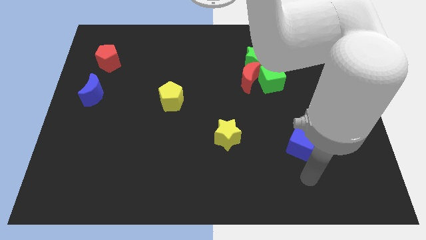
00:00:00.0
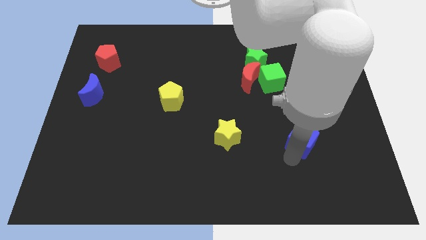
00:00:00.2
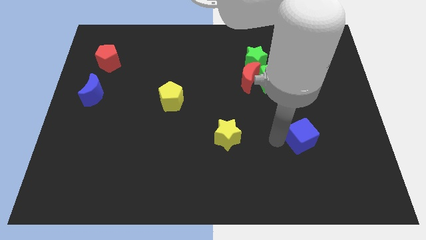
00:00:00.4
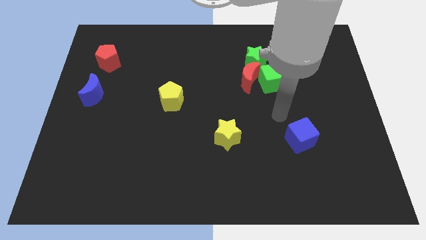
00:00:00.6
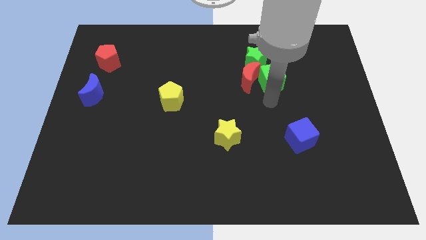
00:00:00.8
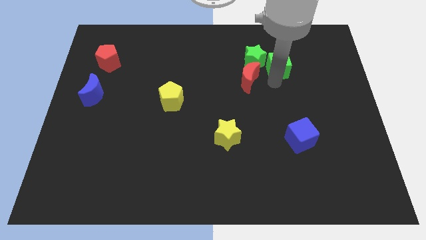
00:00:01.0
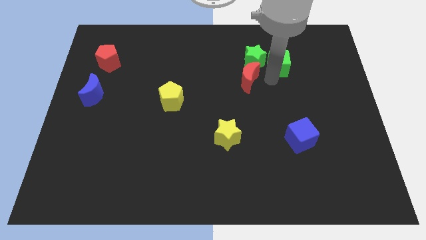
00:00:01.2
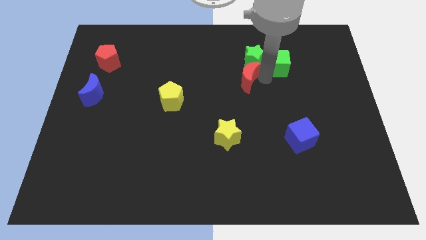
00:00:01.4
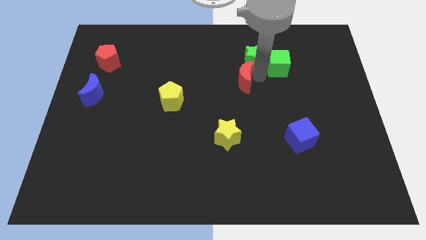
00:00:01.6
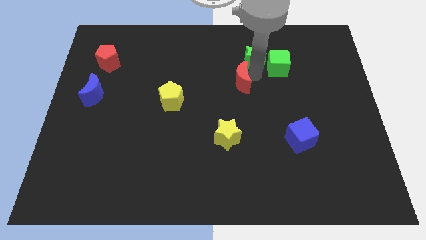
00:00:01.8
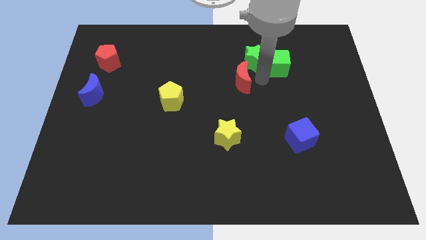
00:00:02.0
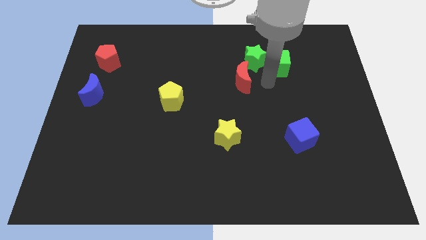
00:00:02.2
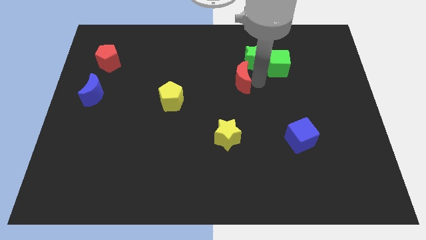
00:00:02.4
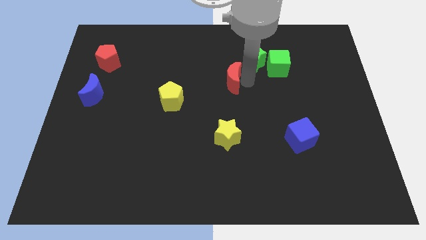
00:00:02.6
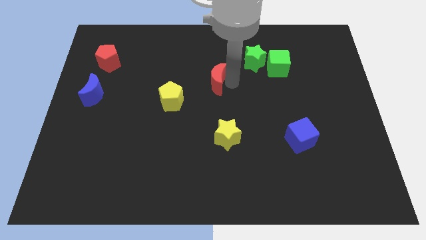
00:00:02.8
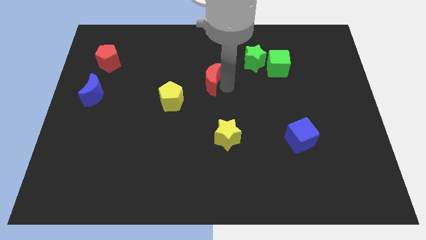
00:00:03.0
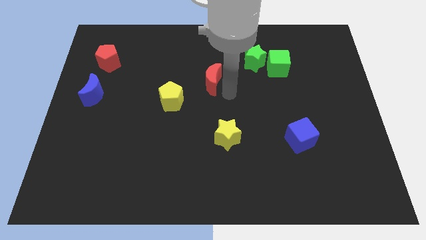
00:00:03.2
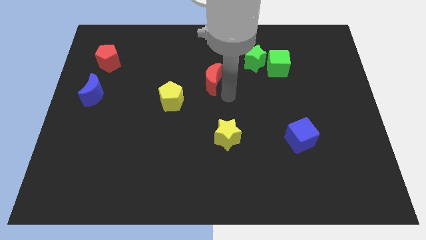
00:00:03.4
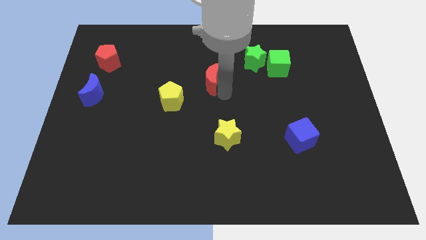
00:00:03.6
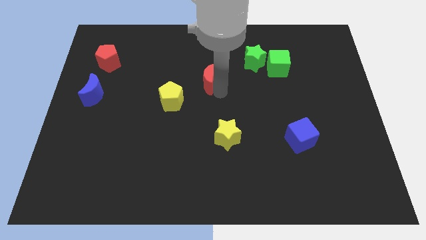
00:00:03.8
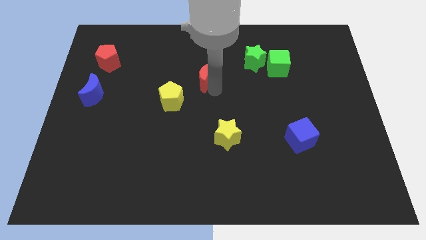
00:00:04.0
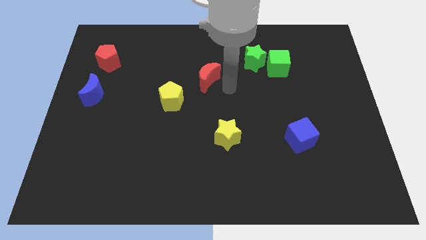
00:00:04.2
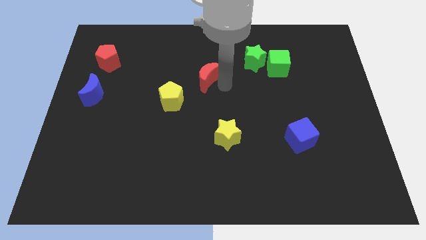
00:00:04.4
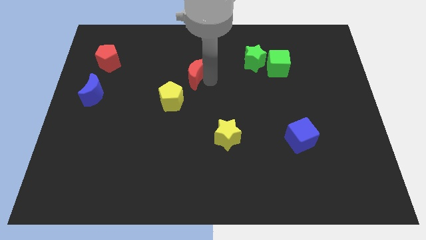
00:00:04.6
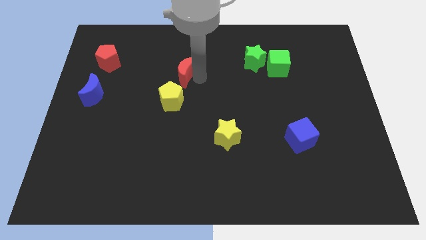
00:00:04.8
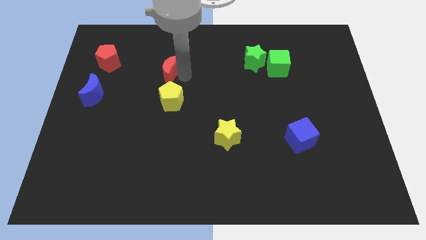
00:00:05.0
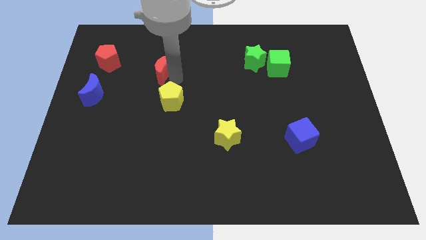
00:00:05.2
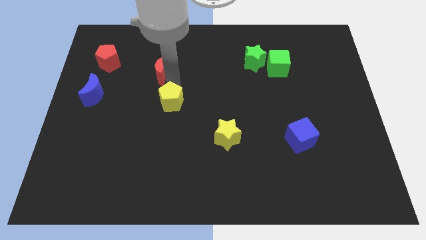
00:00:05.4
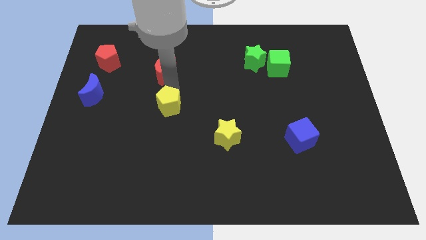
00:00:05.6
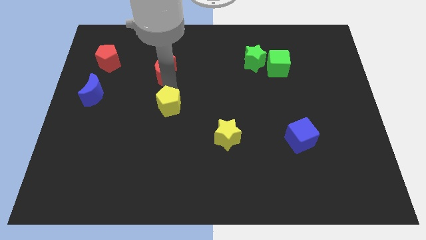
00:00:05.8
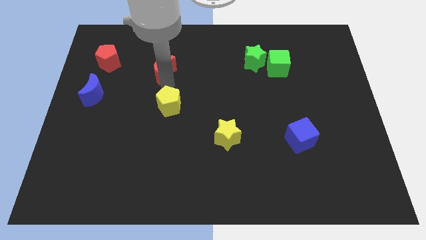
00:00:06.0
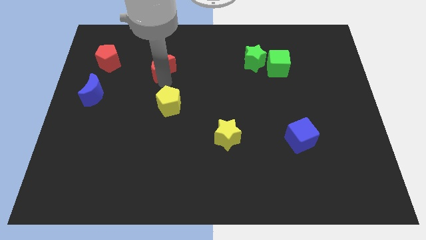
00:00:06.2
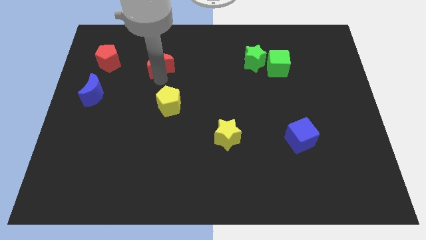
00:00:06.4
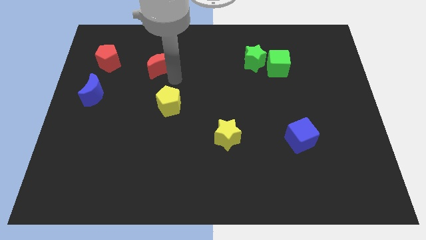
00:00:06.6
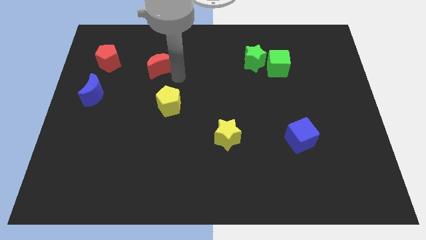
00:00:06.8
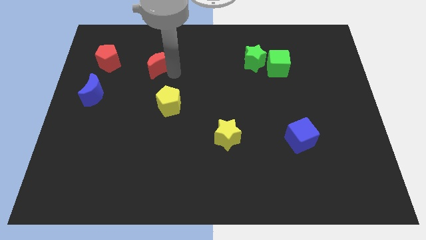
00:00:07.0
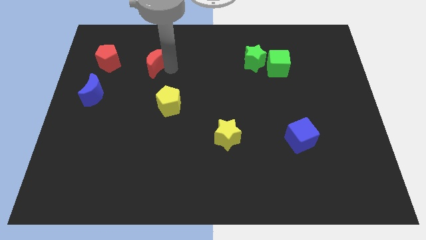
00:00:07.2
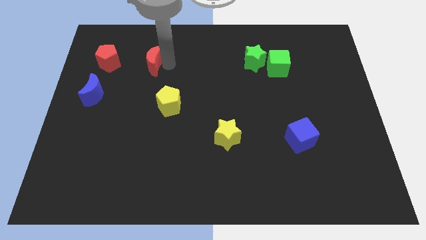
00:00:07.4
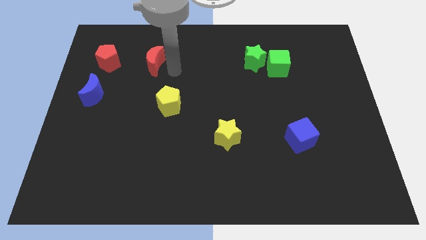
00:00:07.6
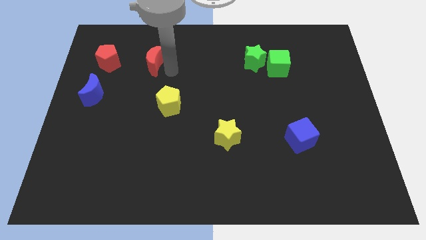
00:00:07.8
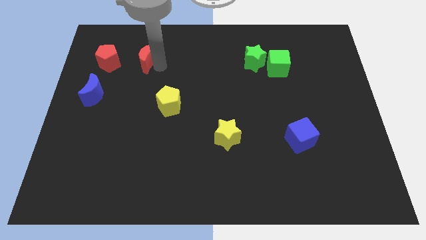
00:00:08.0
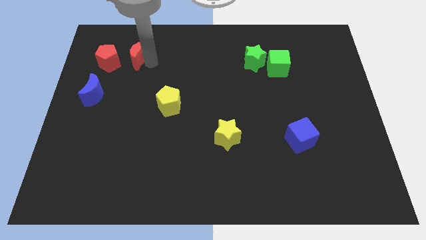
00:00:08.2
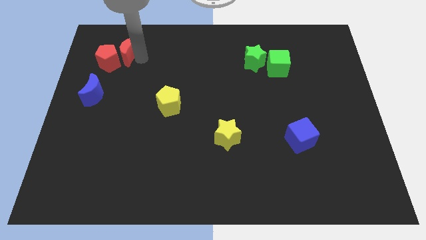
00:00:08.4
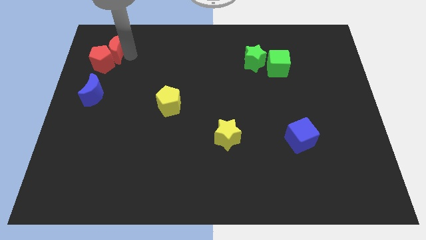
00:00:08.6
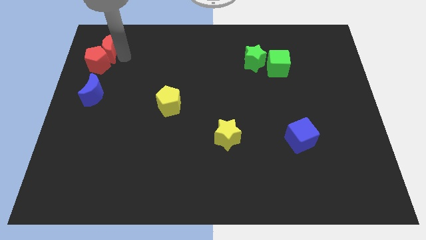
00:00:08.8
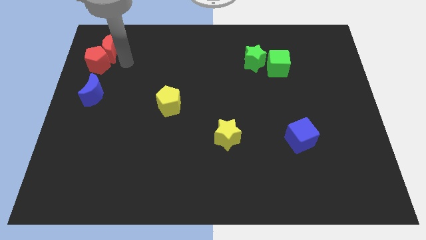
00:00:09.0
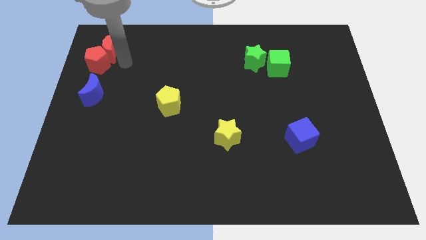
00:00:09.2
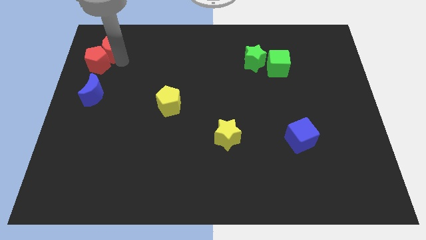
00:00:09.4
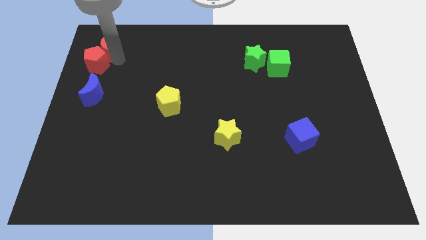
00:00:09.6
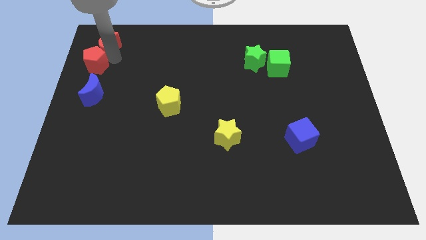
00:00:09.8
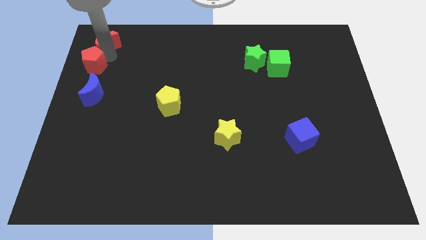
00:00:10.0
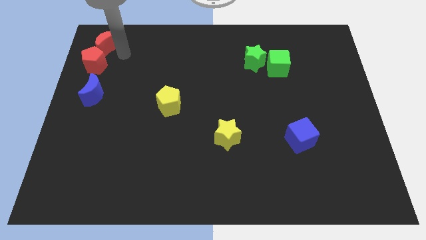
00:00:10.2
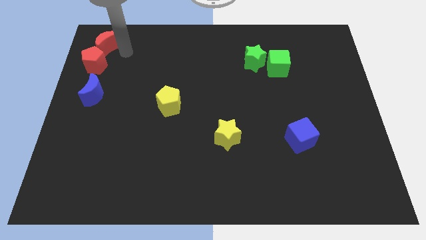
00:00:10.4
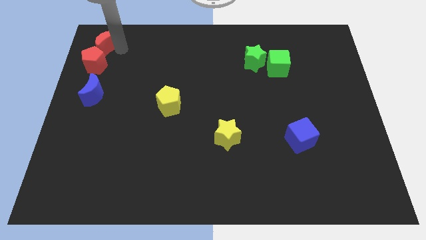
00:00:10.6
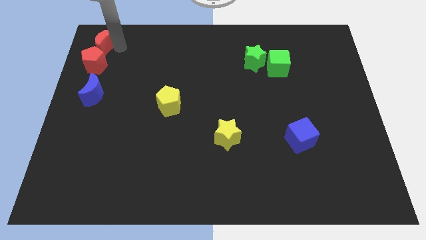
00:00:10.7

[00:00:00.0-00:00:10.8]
push the red moon to the upper left corner

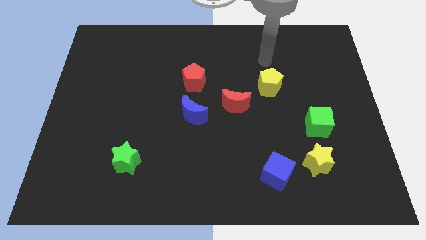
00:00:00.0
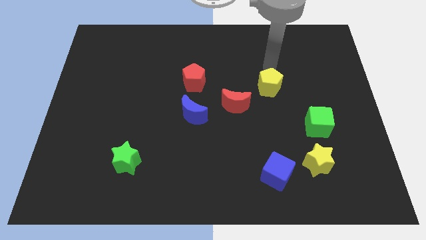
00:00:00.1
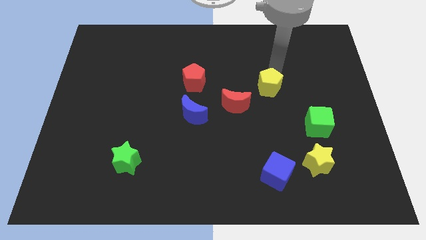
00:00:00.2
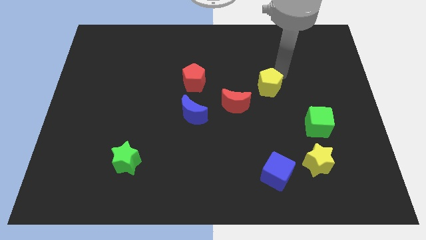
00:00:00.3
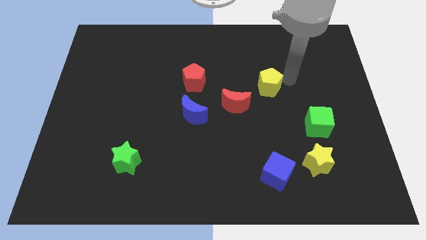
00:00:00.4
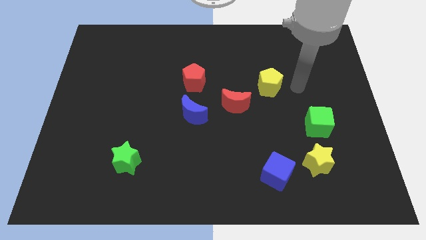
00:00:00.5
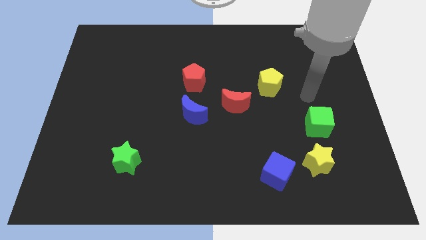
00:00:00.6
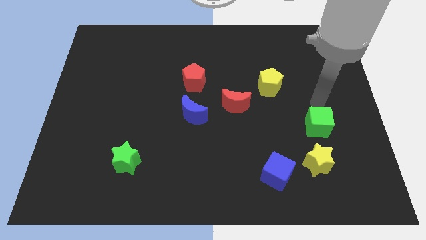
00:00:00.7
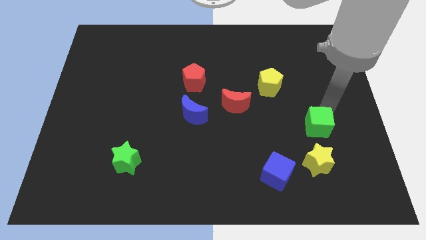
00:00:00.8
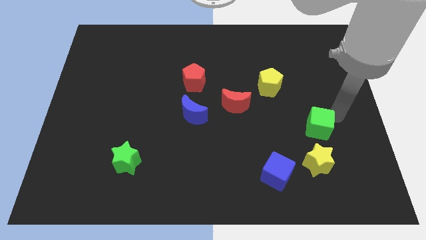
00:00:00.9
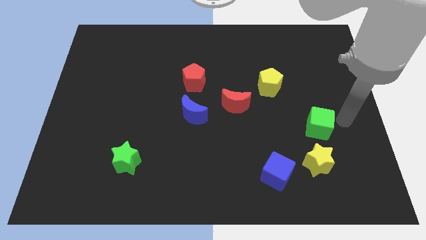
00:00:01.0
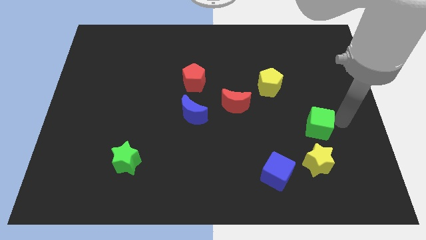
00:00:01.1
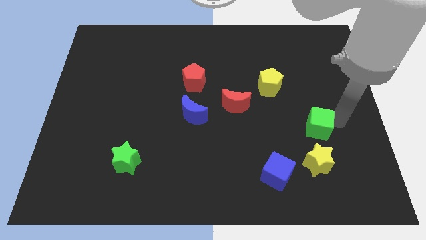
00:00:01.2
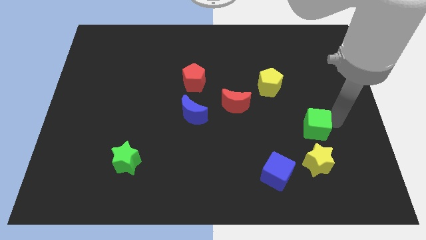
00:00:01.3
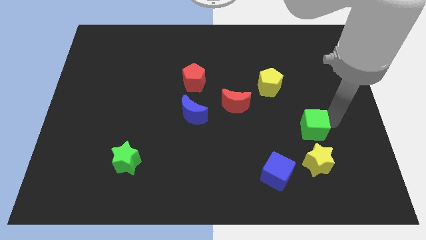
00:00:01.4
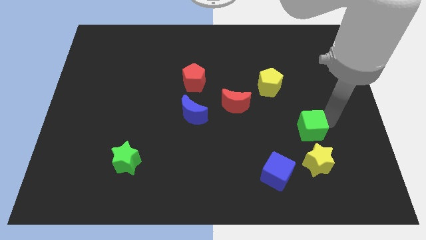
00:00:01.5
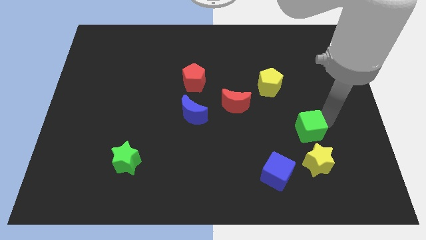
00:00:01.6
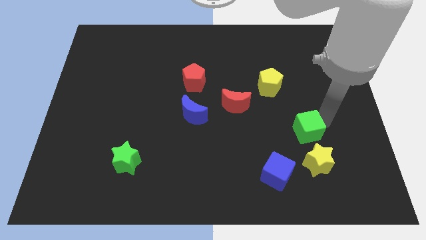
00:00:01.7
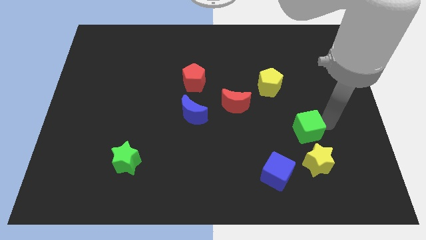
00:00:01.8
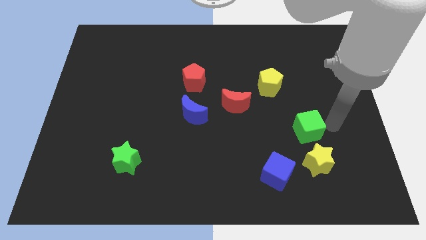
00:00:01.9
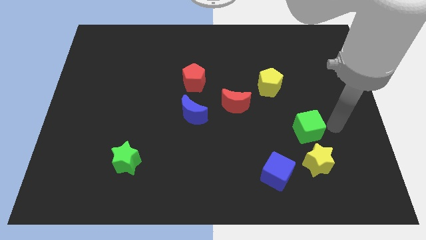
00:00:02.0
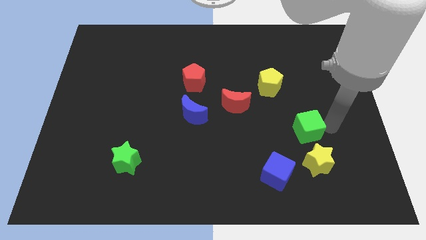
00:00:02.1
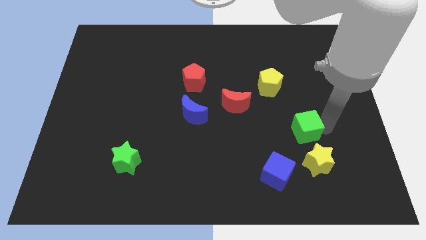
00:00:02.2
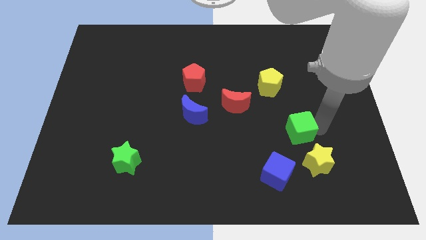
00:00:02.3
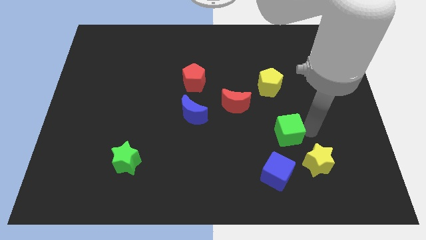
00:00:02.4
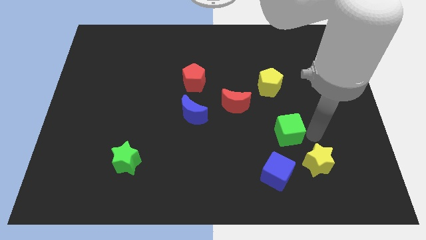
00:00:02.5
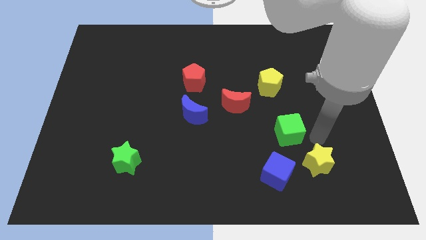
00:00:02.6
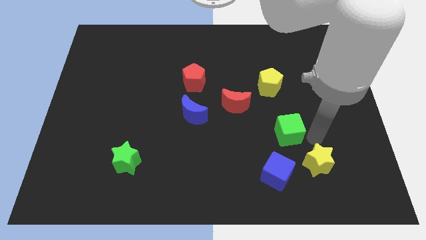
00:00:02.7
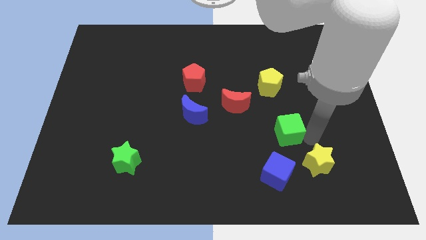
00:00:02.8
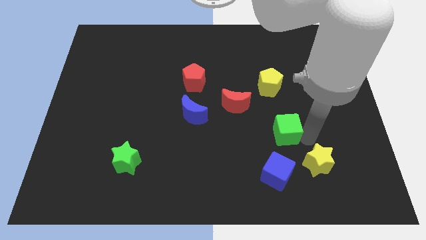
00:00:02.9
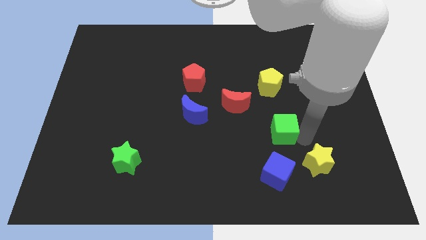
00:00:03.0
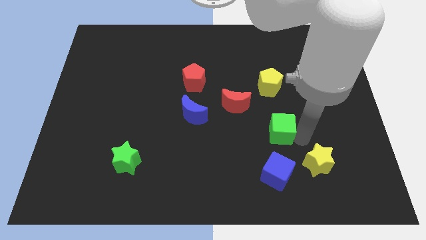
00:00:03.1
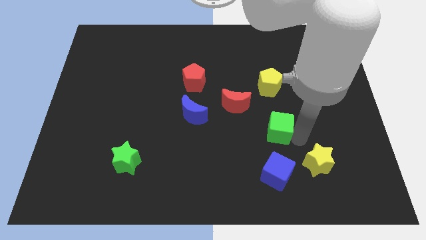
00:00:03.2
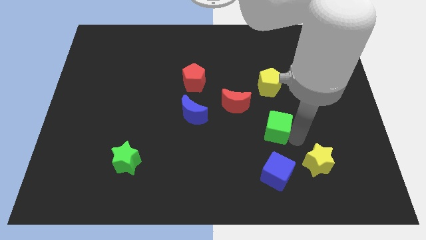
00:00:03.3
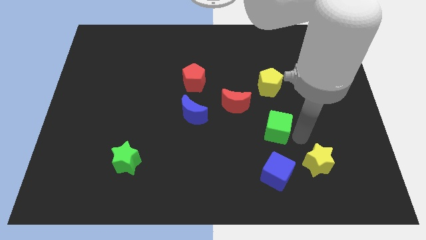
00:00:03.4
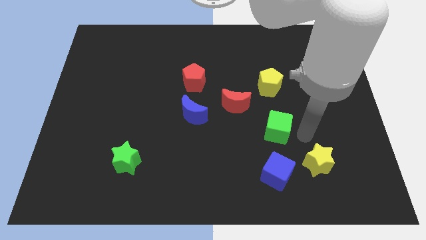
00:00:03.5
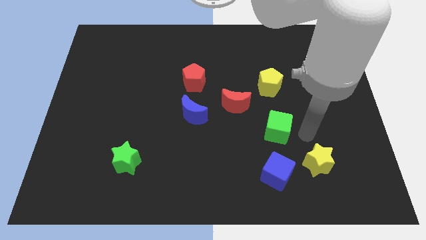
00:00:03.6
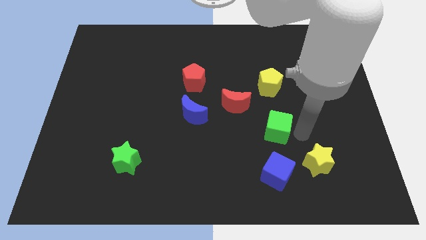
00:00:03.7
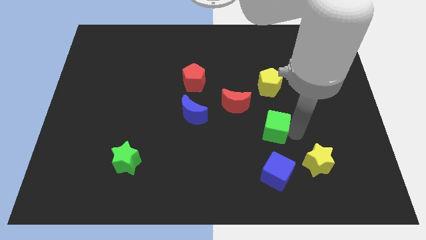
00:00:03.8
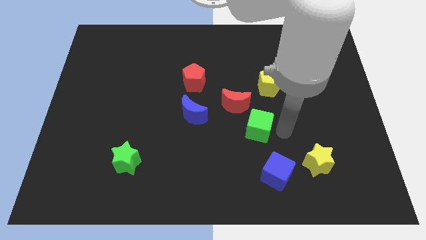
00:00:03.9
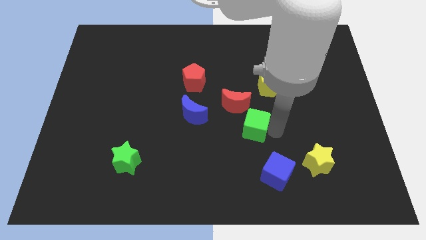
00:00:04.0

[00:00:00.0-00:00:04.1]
push the green cube to the middle
